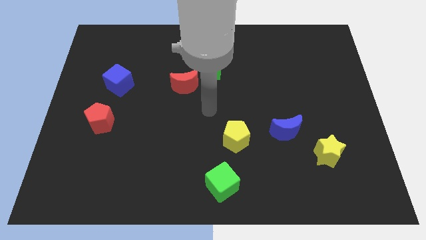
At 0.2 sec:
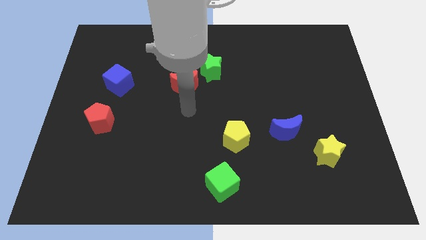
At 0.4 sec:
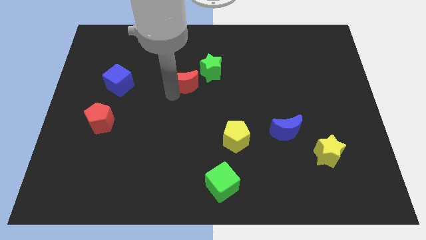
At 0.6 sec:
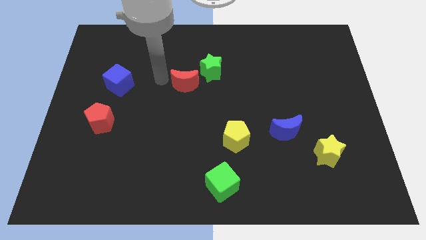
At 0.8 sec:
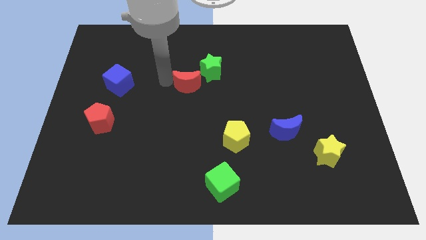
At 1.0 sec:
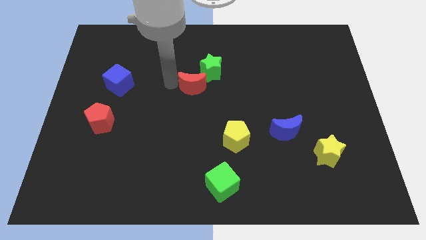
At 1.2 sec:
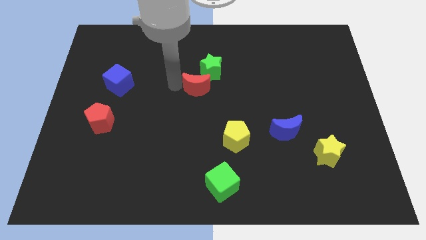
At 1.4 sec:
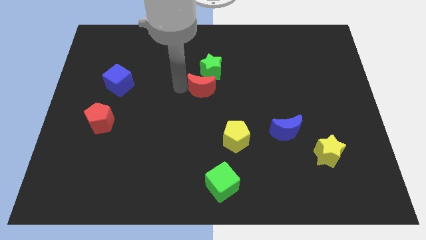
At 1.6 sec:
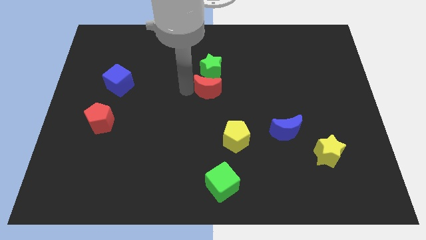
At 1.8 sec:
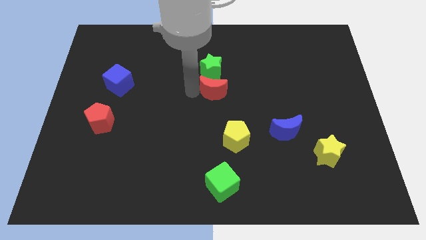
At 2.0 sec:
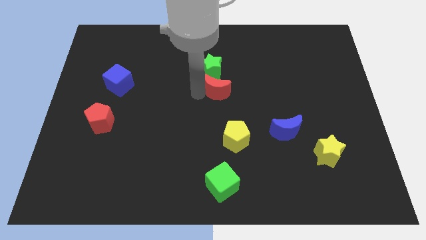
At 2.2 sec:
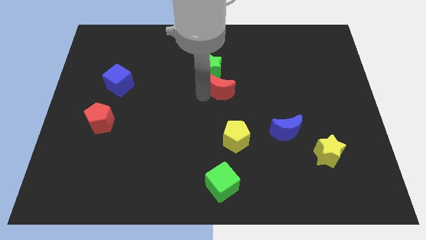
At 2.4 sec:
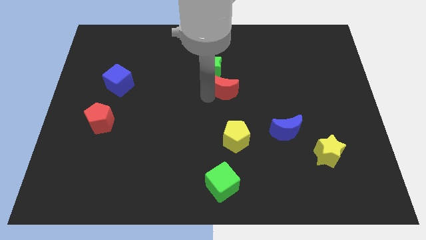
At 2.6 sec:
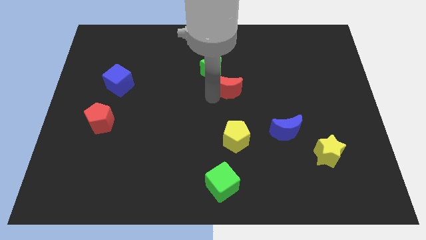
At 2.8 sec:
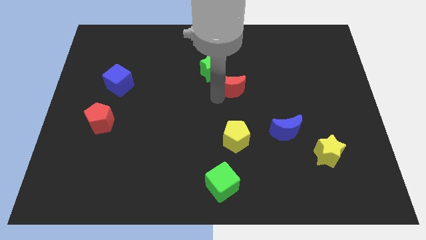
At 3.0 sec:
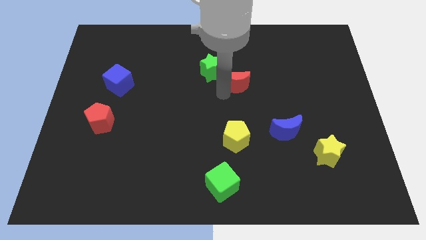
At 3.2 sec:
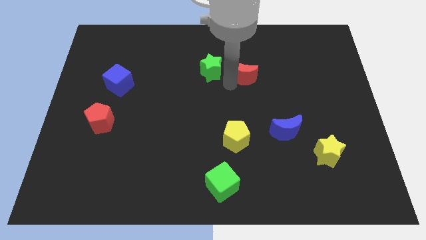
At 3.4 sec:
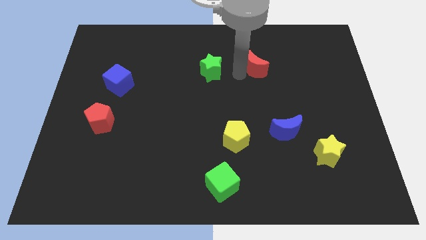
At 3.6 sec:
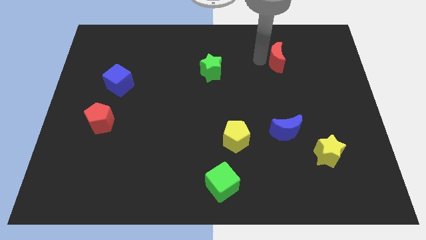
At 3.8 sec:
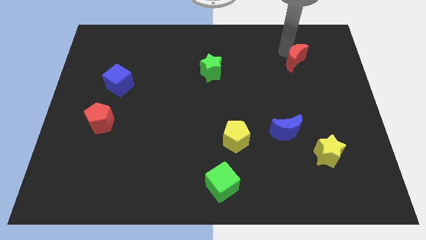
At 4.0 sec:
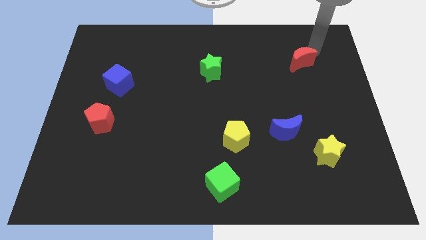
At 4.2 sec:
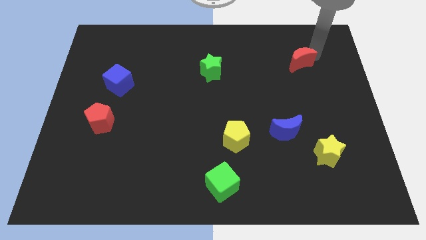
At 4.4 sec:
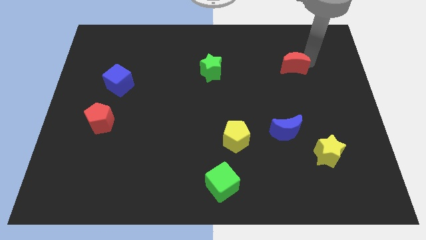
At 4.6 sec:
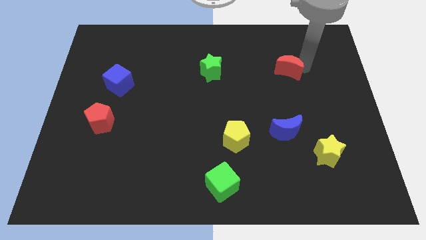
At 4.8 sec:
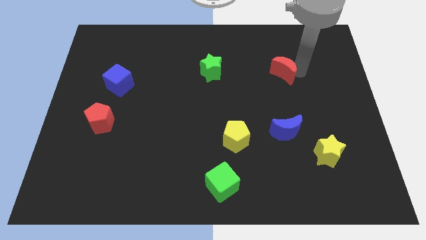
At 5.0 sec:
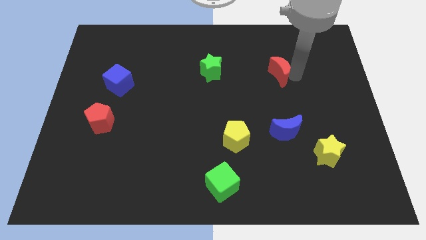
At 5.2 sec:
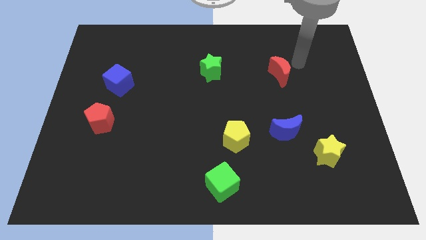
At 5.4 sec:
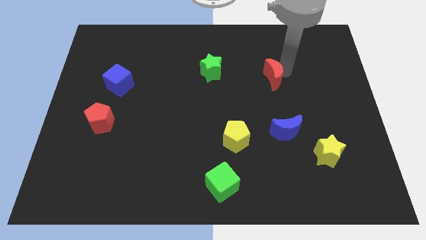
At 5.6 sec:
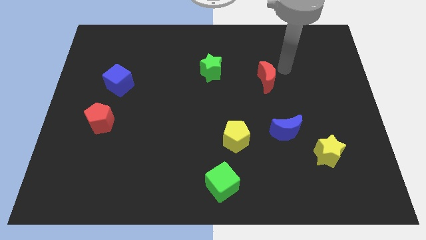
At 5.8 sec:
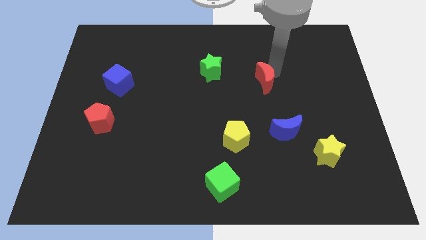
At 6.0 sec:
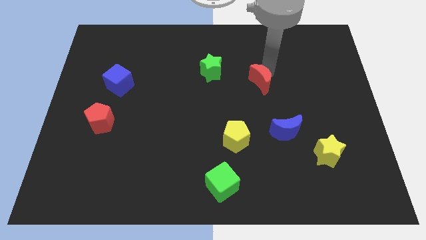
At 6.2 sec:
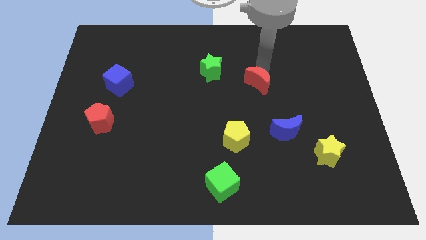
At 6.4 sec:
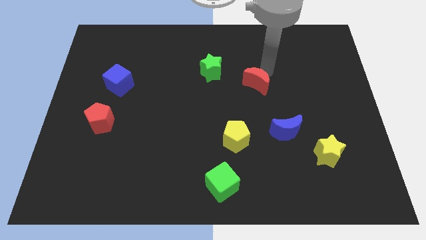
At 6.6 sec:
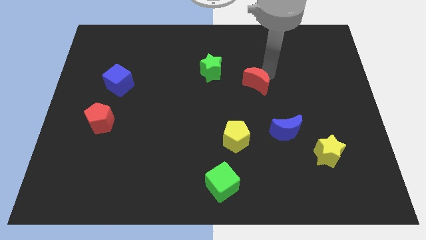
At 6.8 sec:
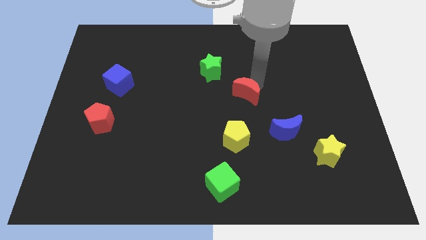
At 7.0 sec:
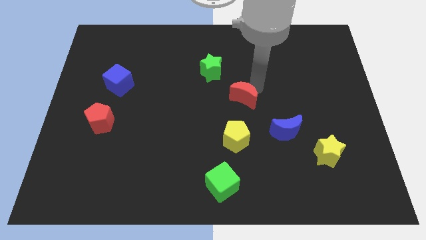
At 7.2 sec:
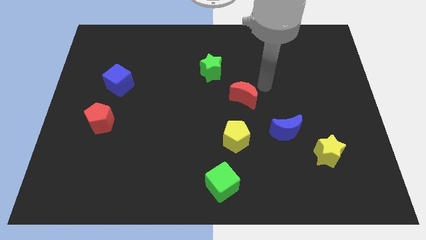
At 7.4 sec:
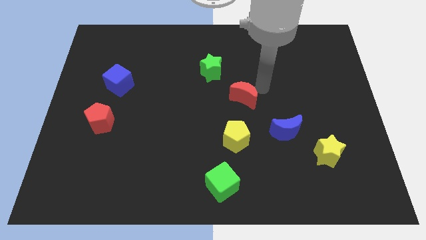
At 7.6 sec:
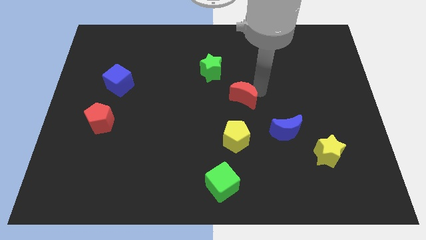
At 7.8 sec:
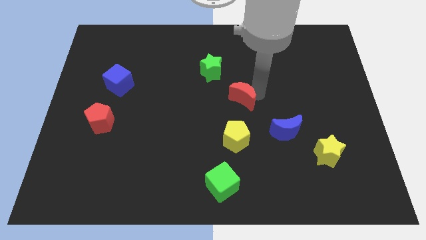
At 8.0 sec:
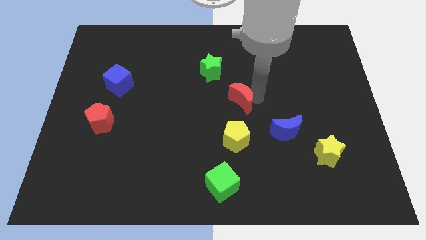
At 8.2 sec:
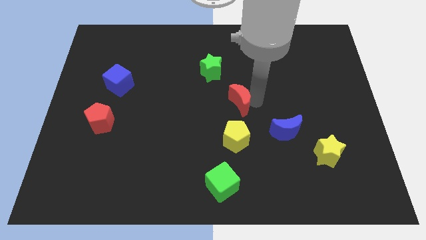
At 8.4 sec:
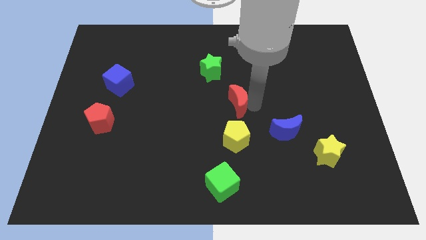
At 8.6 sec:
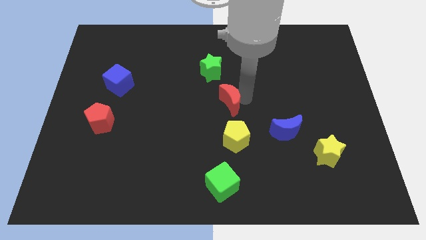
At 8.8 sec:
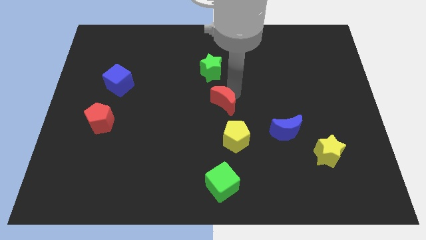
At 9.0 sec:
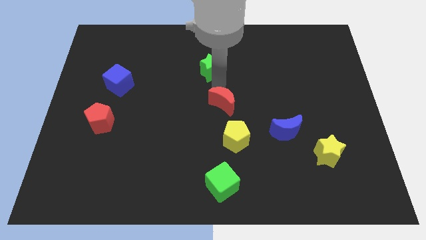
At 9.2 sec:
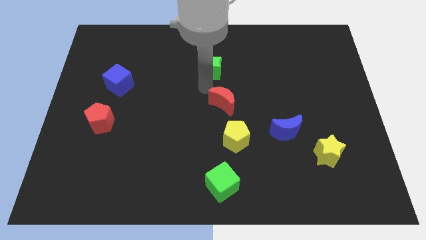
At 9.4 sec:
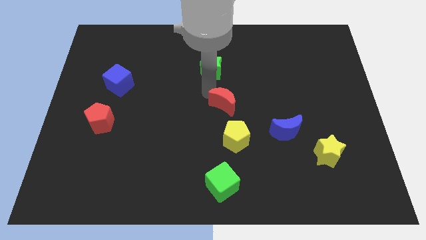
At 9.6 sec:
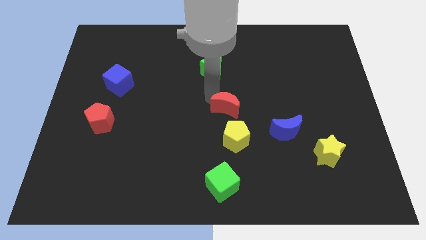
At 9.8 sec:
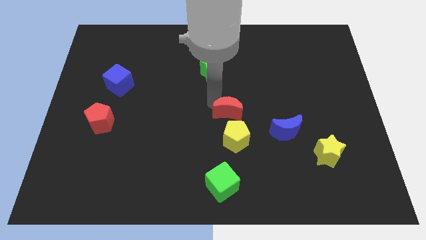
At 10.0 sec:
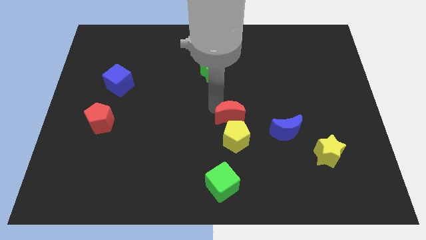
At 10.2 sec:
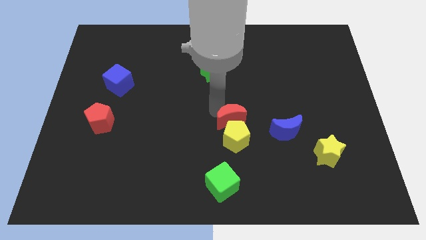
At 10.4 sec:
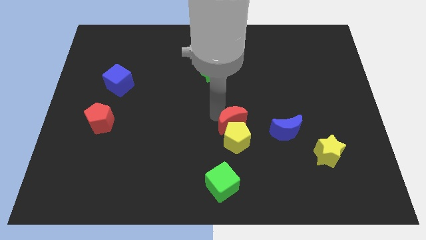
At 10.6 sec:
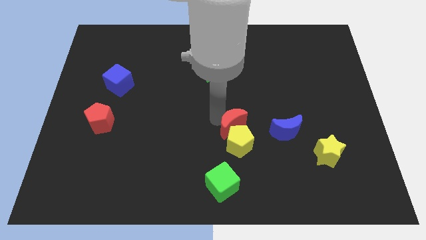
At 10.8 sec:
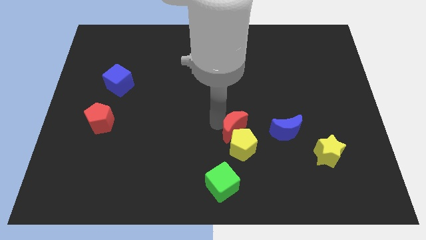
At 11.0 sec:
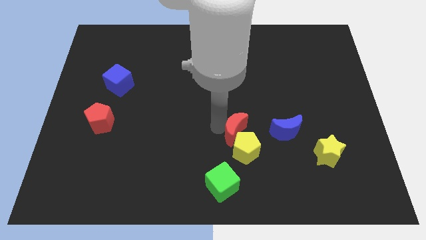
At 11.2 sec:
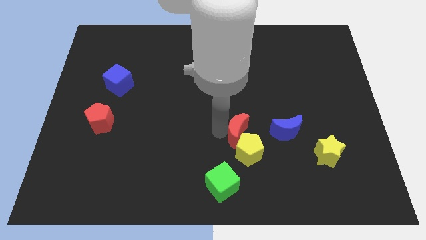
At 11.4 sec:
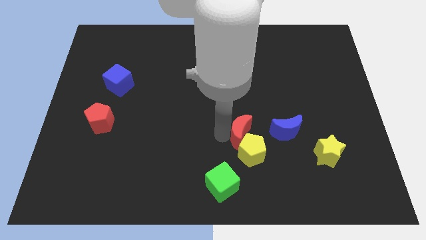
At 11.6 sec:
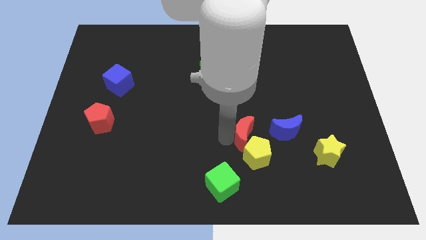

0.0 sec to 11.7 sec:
slide the red moon downwards and then to the right

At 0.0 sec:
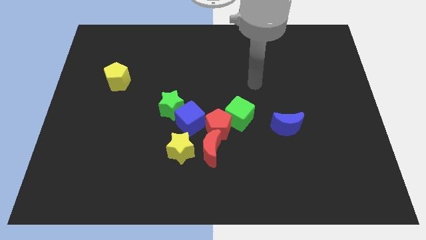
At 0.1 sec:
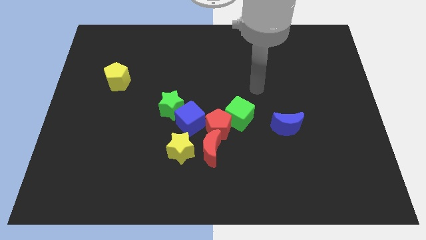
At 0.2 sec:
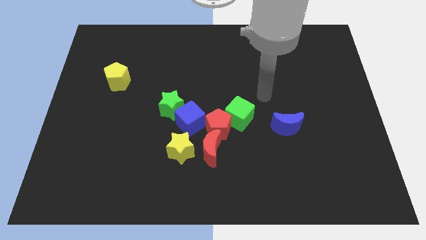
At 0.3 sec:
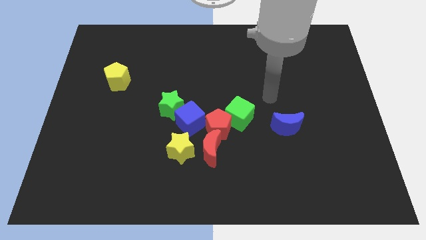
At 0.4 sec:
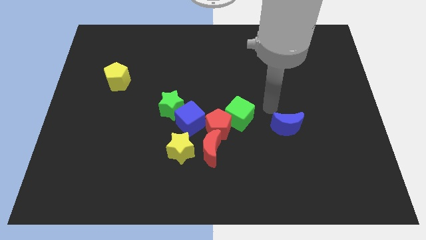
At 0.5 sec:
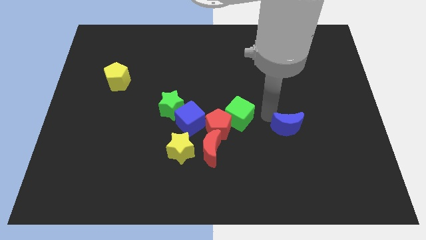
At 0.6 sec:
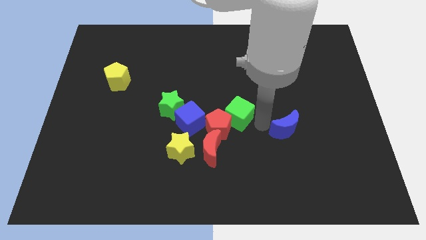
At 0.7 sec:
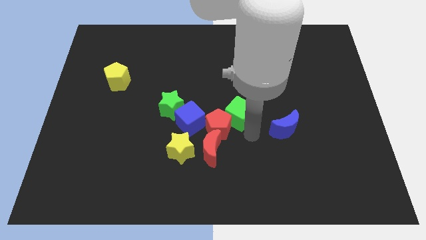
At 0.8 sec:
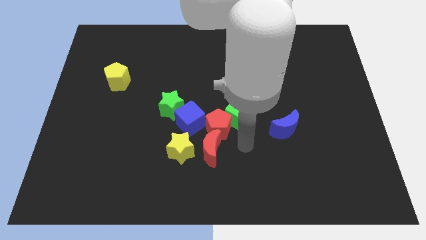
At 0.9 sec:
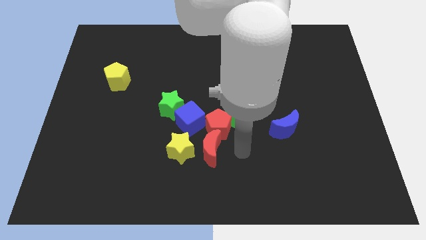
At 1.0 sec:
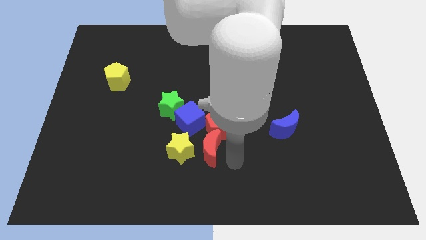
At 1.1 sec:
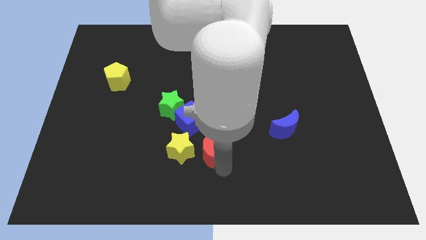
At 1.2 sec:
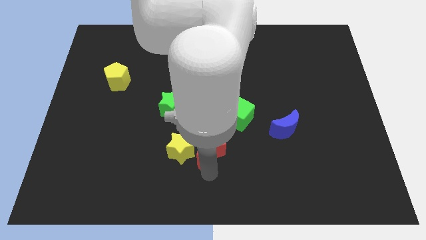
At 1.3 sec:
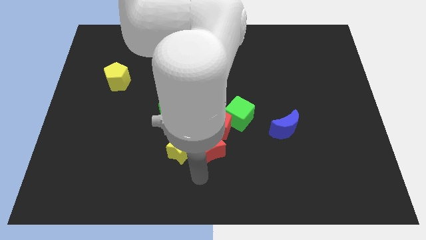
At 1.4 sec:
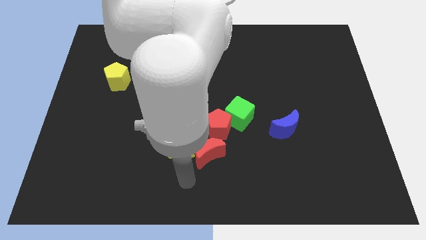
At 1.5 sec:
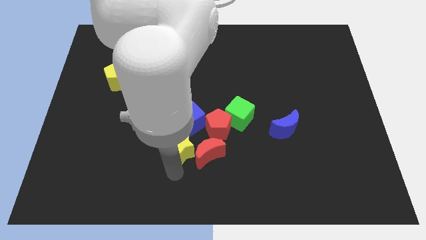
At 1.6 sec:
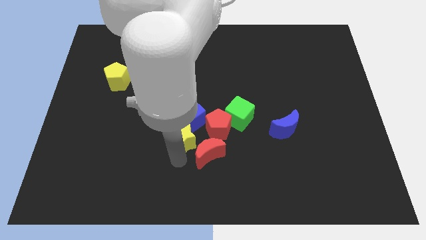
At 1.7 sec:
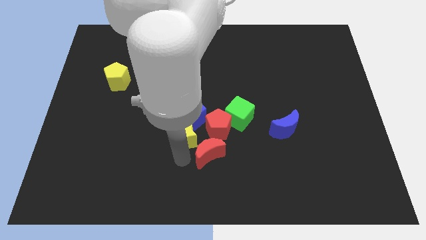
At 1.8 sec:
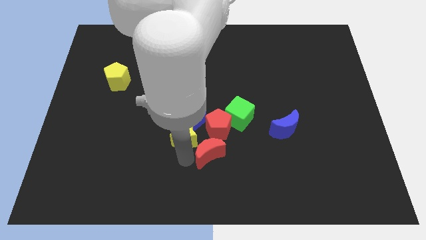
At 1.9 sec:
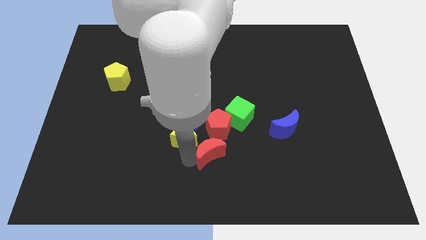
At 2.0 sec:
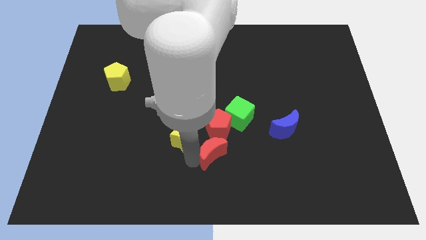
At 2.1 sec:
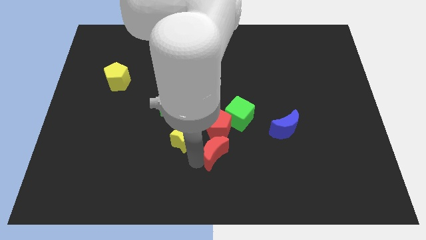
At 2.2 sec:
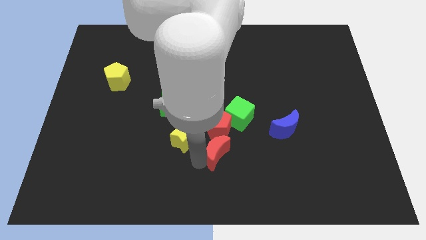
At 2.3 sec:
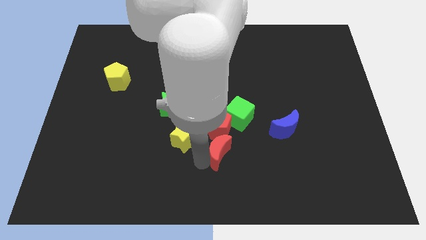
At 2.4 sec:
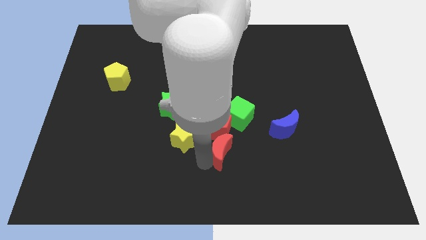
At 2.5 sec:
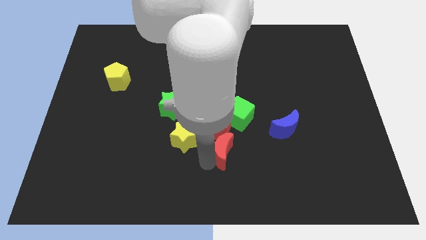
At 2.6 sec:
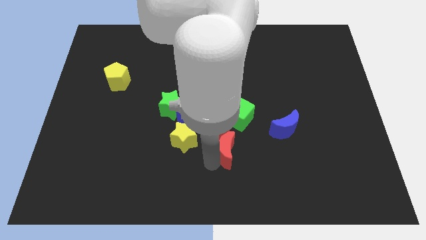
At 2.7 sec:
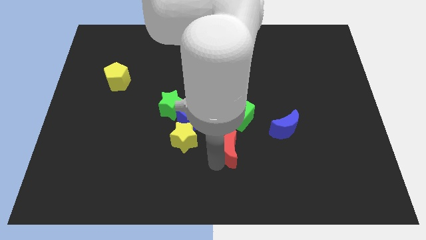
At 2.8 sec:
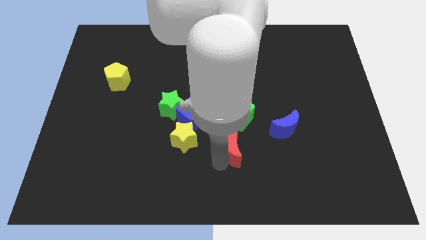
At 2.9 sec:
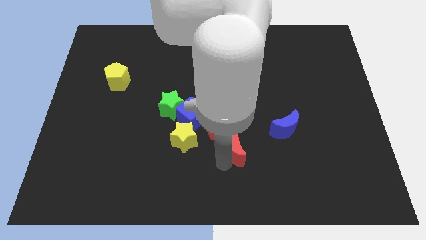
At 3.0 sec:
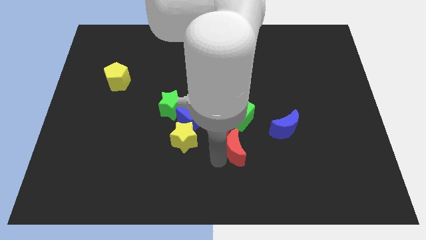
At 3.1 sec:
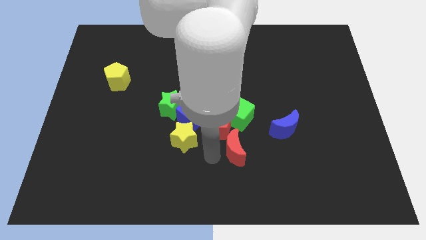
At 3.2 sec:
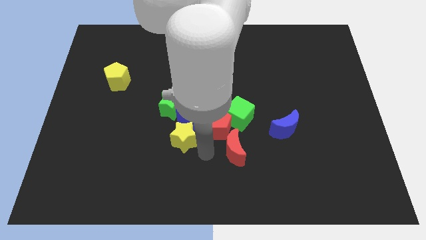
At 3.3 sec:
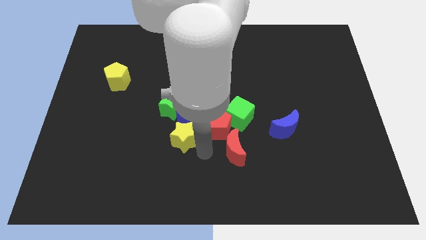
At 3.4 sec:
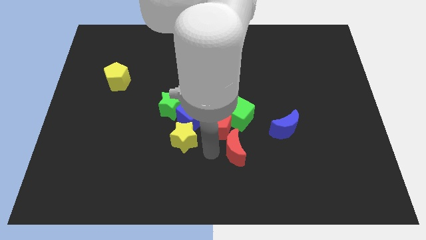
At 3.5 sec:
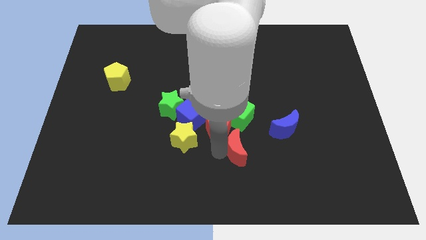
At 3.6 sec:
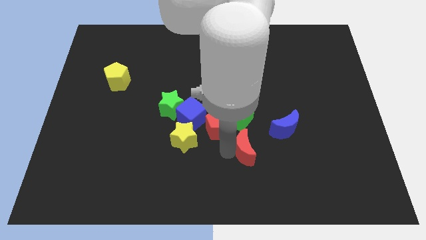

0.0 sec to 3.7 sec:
slightly slide the red moon to the right
